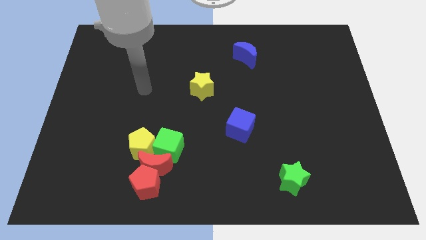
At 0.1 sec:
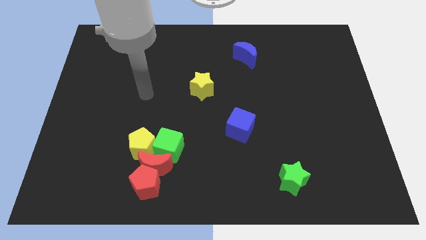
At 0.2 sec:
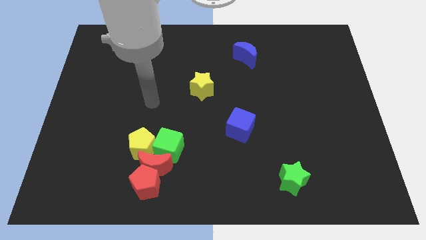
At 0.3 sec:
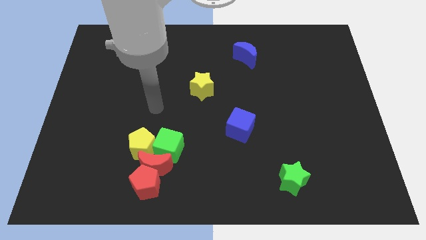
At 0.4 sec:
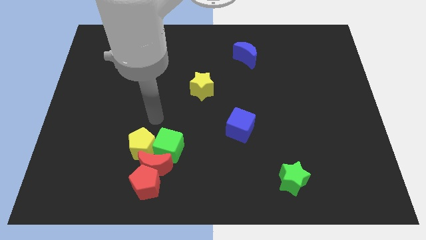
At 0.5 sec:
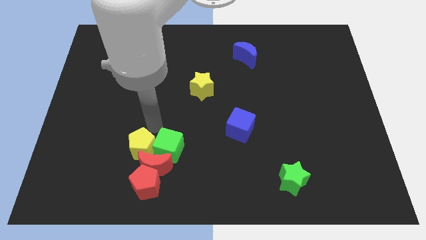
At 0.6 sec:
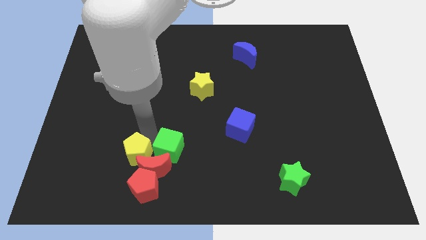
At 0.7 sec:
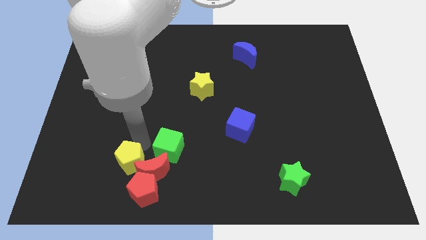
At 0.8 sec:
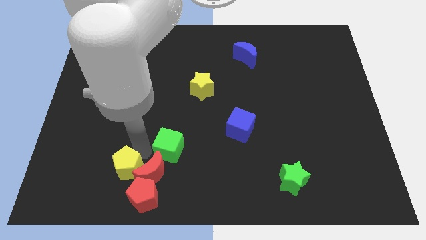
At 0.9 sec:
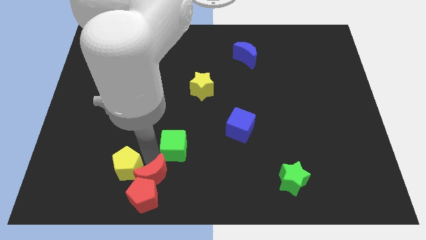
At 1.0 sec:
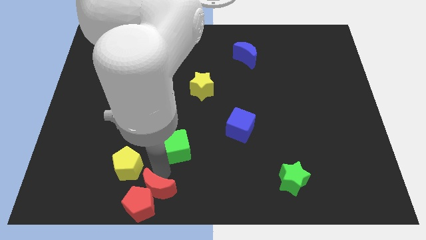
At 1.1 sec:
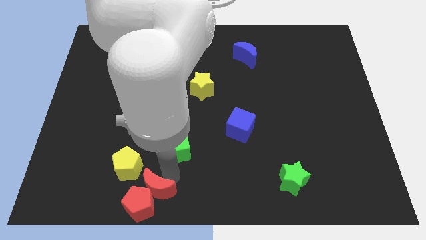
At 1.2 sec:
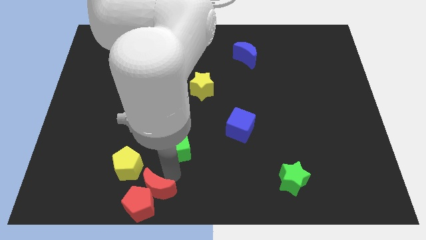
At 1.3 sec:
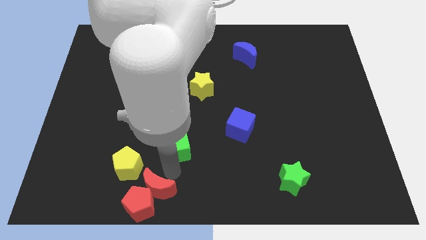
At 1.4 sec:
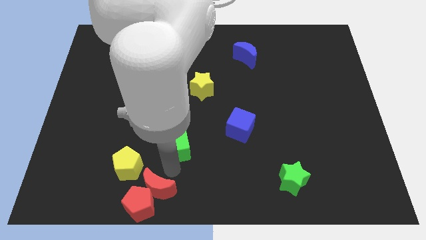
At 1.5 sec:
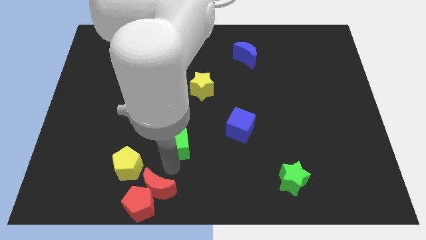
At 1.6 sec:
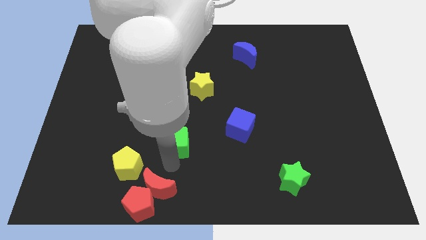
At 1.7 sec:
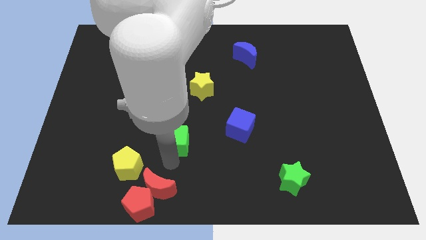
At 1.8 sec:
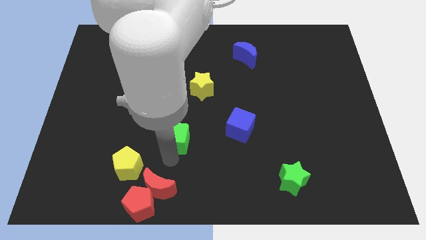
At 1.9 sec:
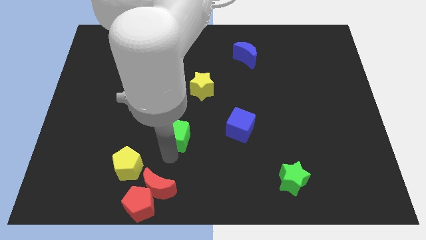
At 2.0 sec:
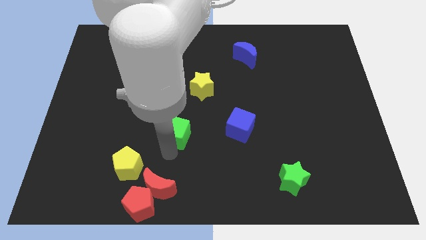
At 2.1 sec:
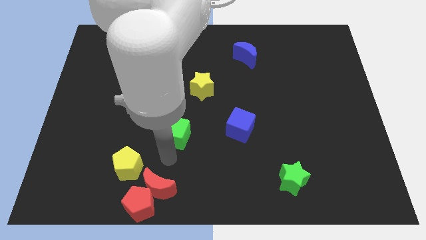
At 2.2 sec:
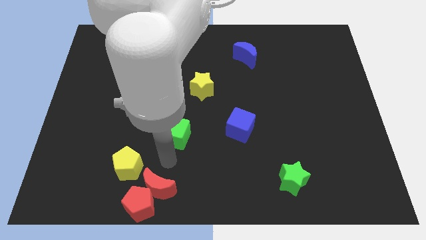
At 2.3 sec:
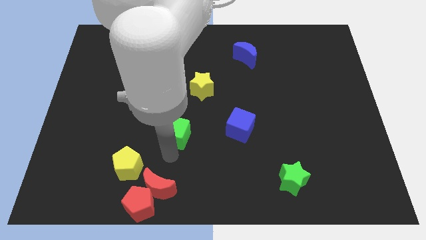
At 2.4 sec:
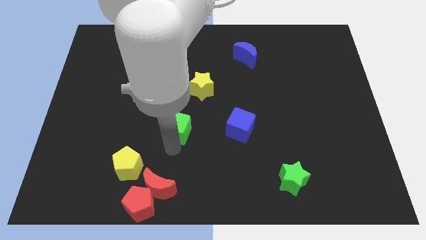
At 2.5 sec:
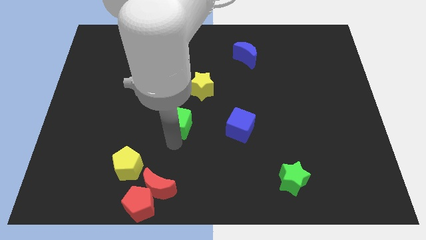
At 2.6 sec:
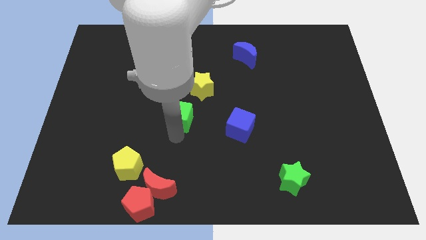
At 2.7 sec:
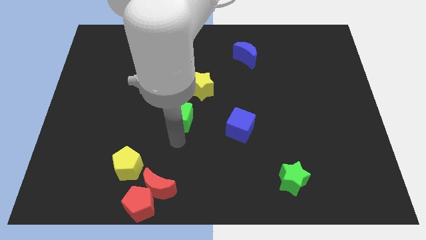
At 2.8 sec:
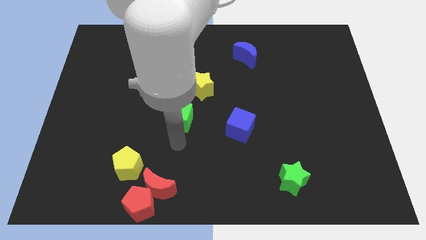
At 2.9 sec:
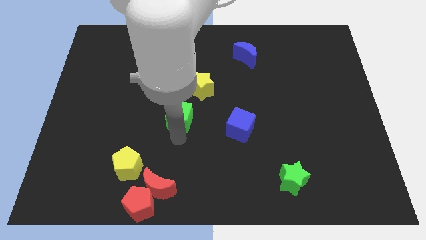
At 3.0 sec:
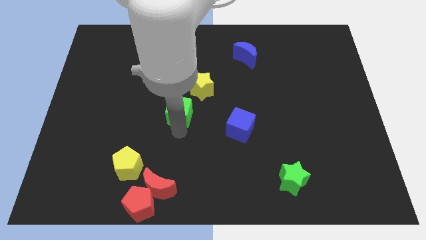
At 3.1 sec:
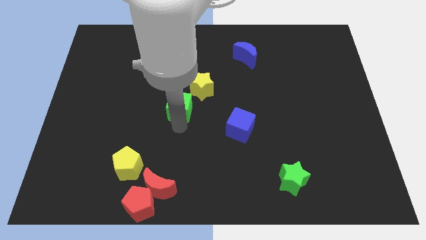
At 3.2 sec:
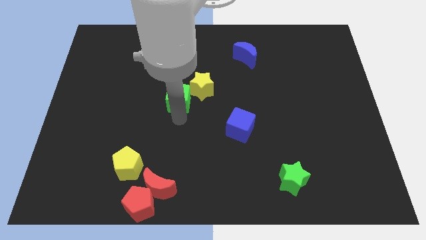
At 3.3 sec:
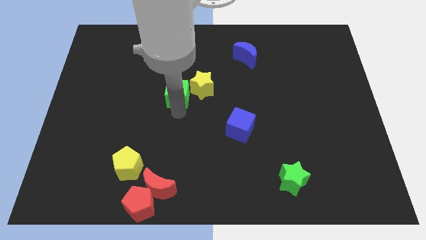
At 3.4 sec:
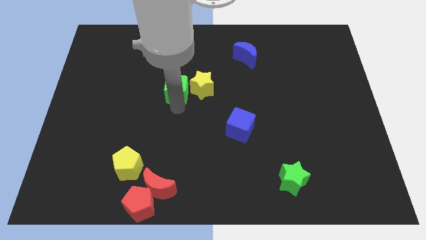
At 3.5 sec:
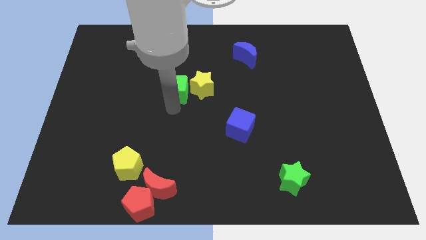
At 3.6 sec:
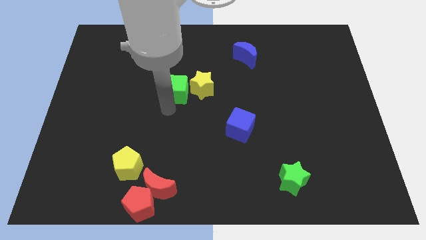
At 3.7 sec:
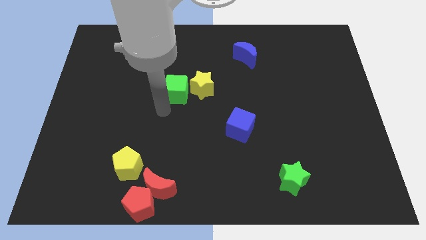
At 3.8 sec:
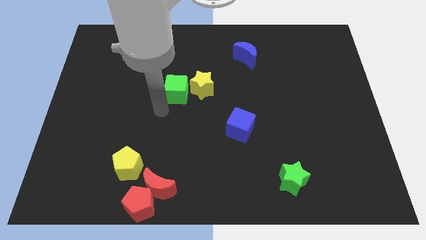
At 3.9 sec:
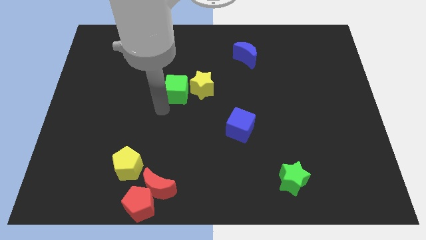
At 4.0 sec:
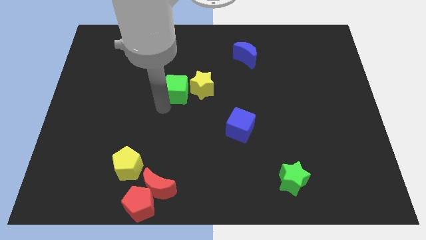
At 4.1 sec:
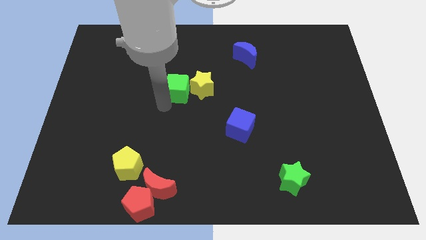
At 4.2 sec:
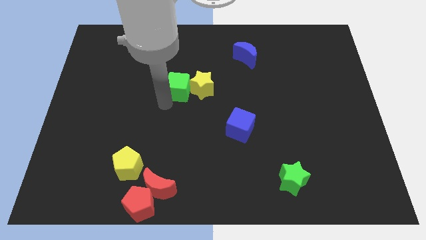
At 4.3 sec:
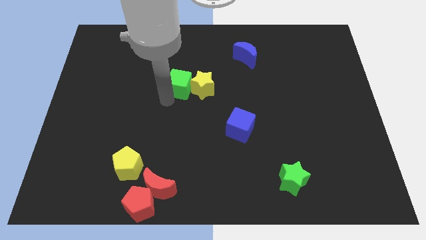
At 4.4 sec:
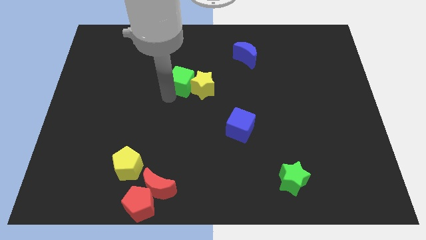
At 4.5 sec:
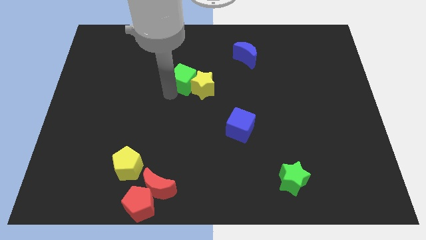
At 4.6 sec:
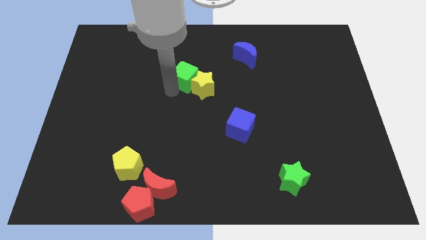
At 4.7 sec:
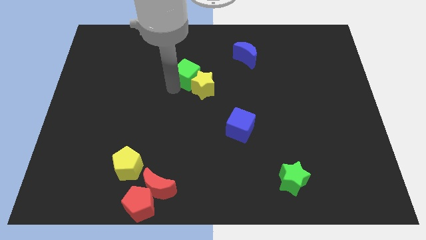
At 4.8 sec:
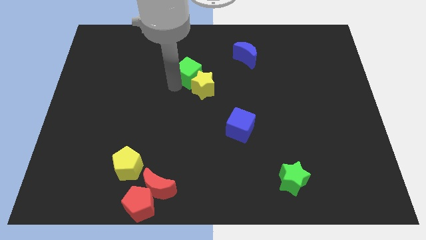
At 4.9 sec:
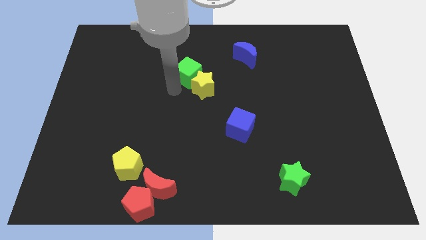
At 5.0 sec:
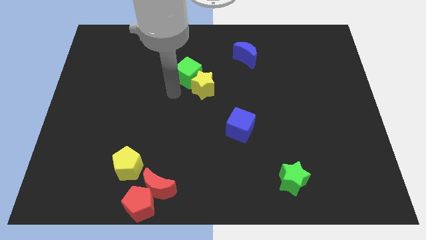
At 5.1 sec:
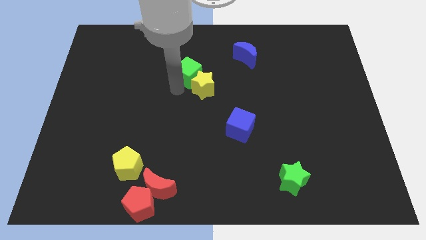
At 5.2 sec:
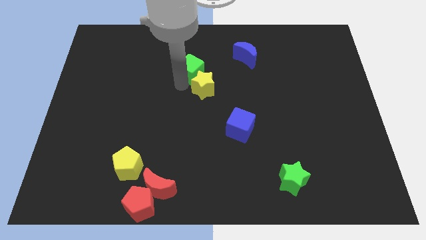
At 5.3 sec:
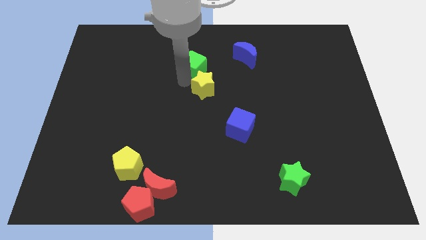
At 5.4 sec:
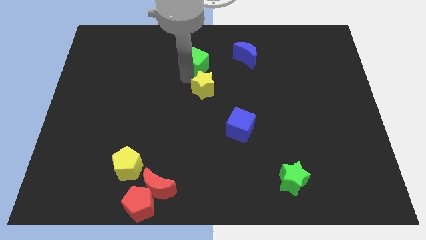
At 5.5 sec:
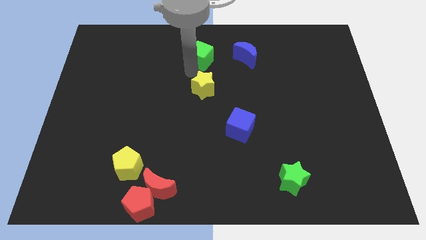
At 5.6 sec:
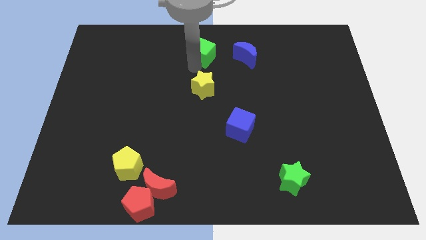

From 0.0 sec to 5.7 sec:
push the green cube to the top side
